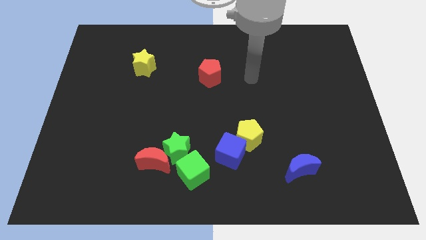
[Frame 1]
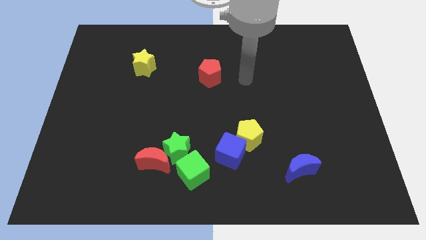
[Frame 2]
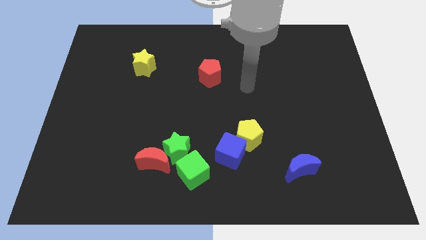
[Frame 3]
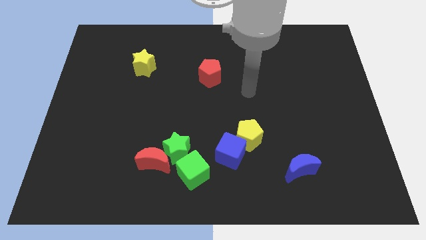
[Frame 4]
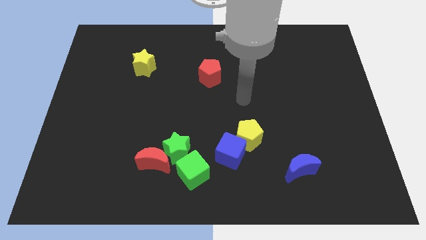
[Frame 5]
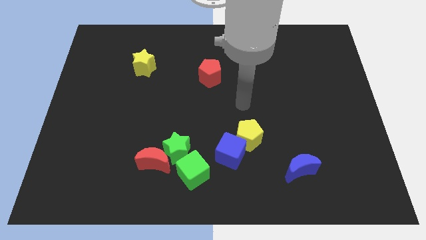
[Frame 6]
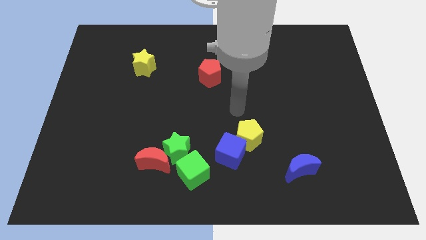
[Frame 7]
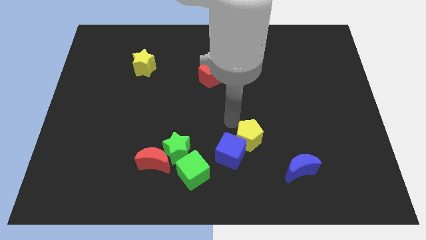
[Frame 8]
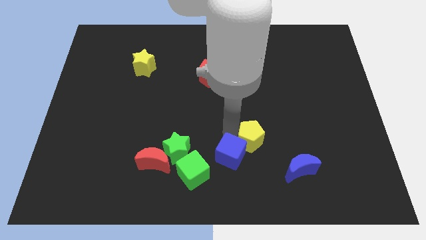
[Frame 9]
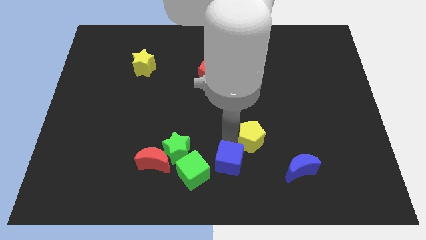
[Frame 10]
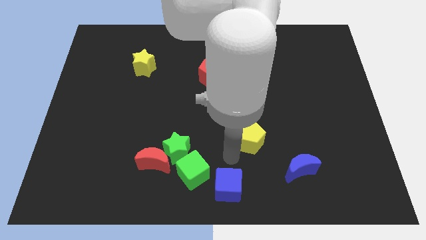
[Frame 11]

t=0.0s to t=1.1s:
move the yellow pentagon away from the blue cube

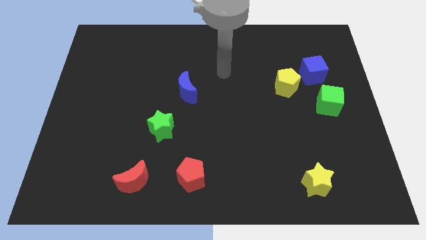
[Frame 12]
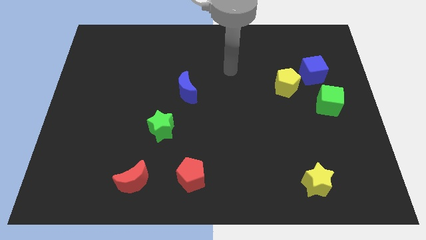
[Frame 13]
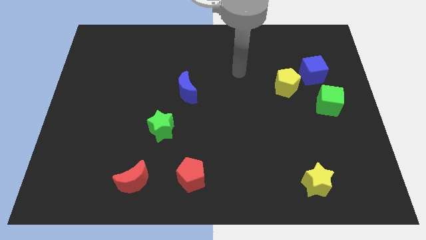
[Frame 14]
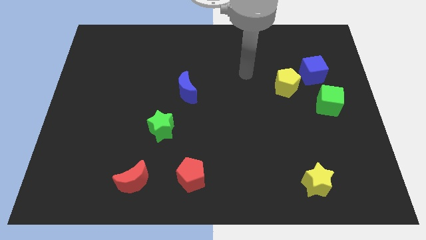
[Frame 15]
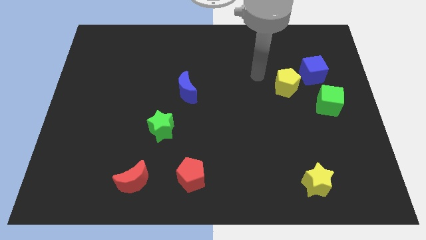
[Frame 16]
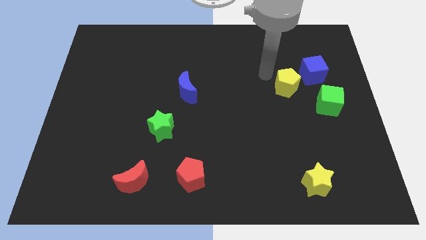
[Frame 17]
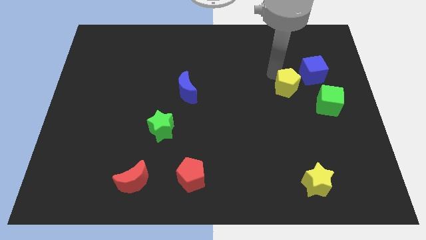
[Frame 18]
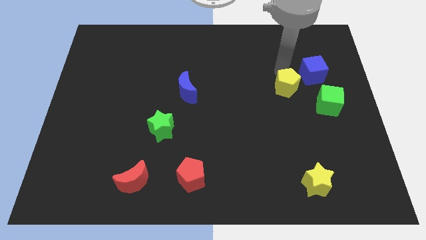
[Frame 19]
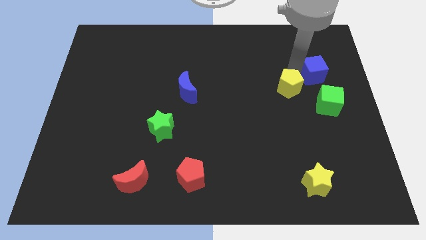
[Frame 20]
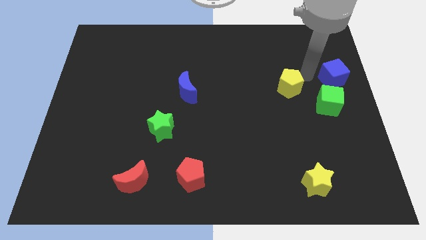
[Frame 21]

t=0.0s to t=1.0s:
pull the yellow pentagon apart from the blue cube

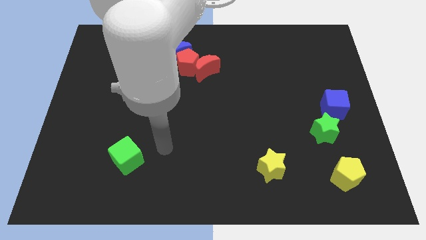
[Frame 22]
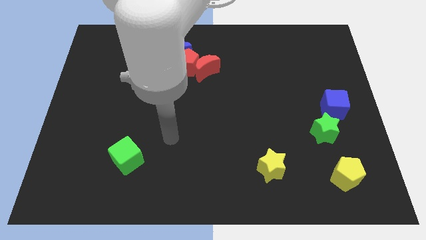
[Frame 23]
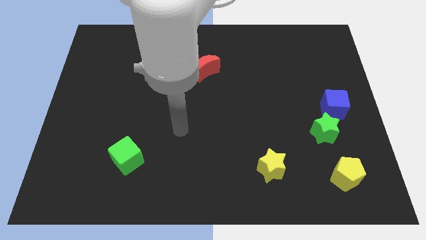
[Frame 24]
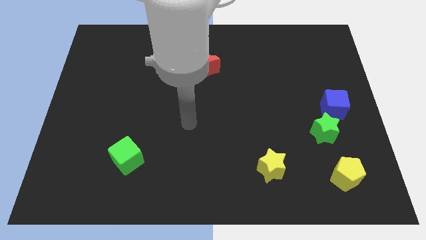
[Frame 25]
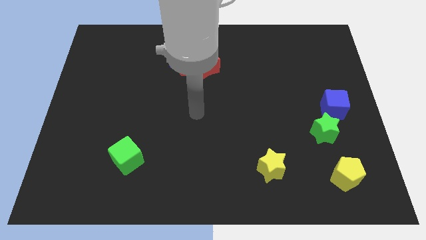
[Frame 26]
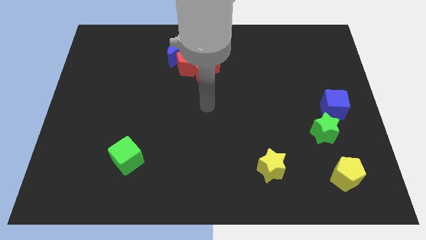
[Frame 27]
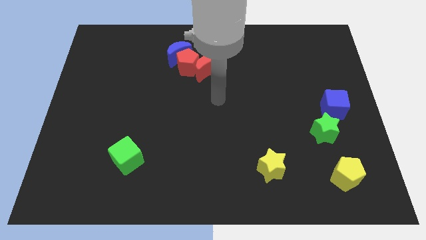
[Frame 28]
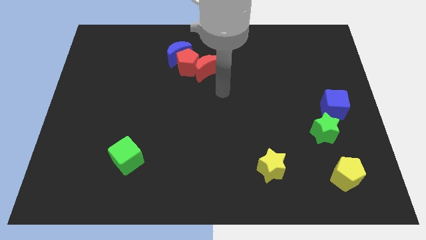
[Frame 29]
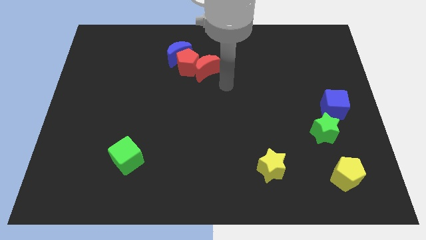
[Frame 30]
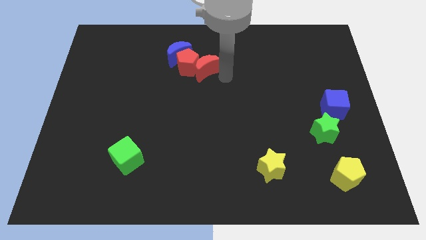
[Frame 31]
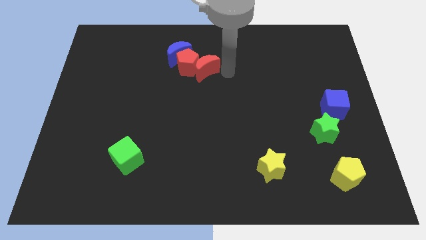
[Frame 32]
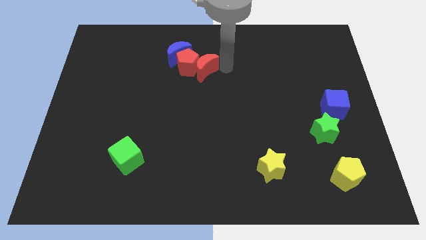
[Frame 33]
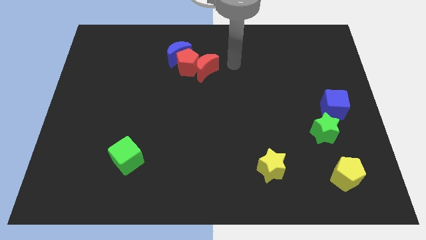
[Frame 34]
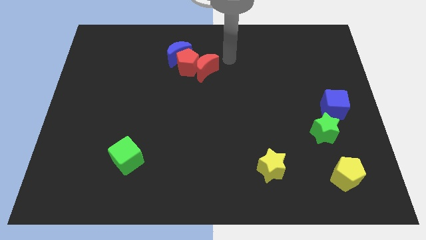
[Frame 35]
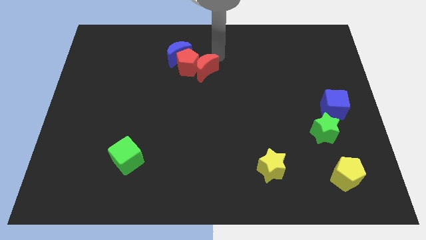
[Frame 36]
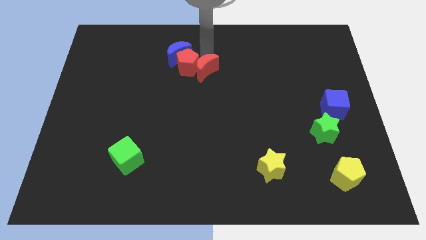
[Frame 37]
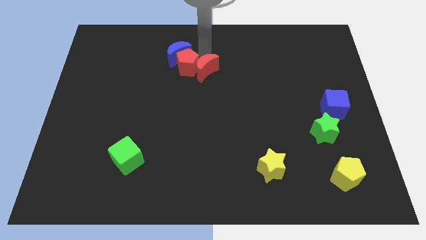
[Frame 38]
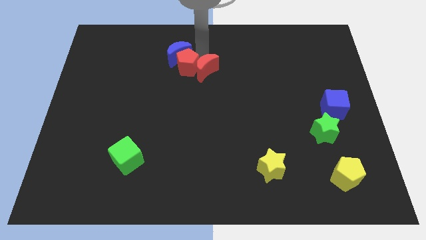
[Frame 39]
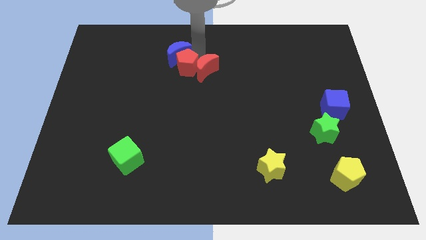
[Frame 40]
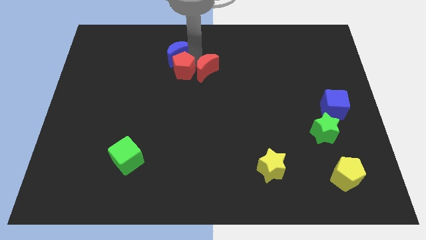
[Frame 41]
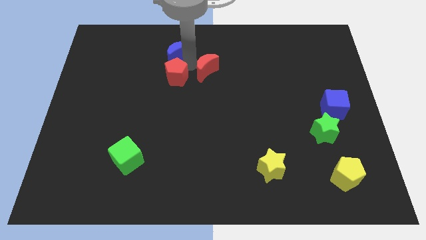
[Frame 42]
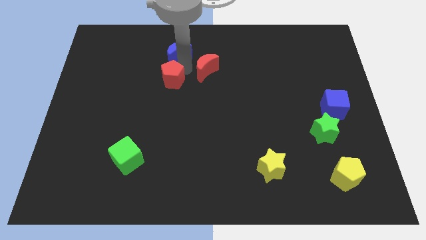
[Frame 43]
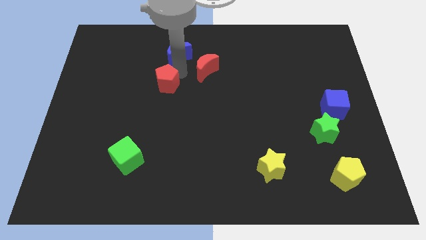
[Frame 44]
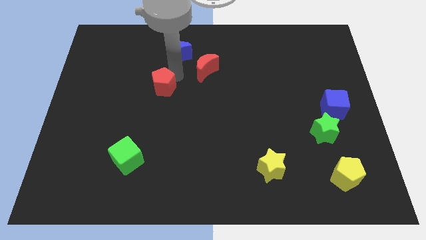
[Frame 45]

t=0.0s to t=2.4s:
move the red pentagon away from the blue moon and red moon

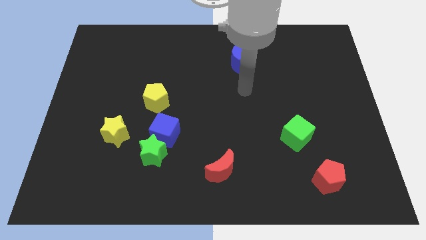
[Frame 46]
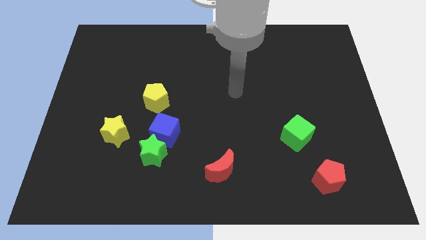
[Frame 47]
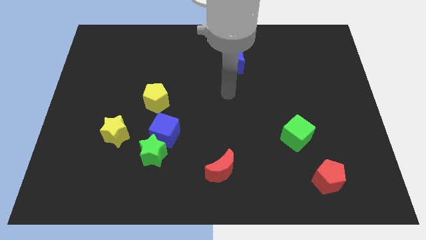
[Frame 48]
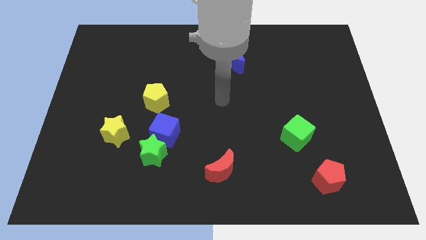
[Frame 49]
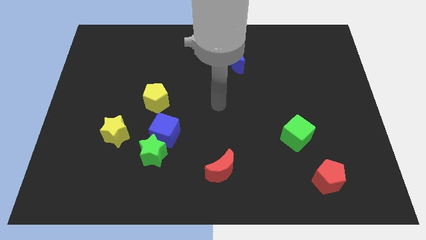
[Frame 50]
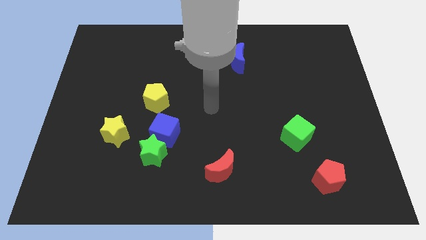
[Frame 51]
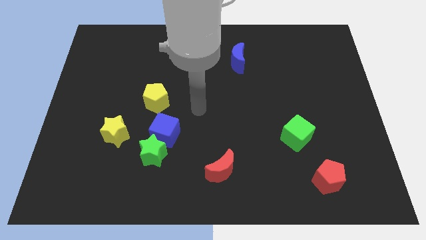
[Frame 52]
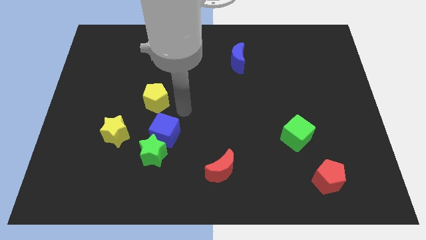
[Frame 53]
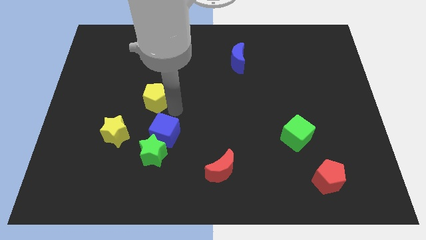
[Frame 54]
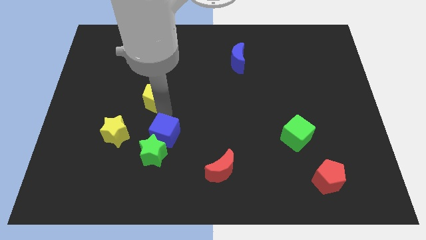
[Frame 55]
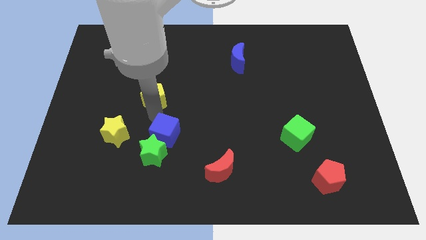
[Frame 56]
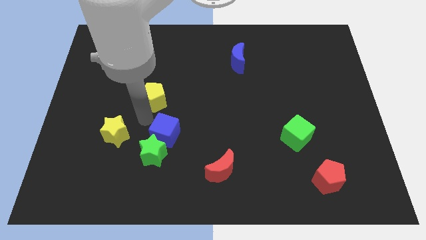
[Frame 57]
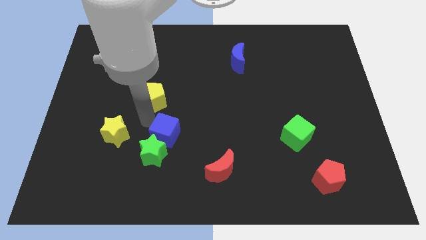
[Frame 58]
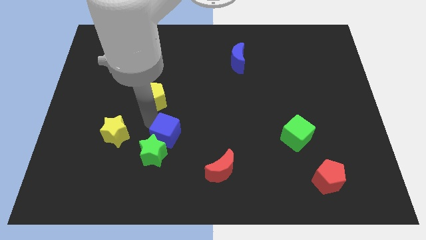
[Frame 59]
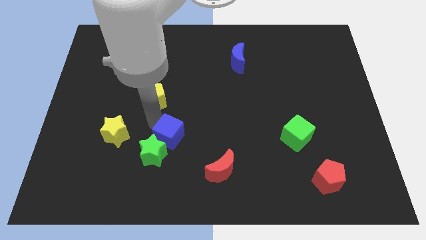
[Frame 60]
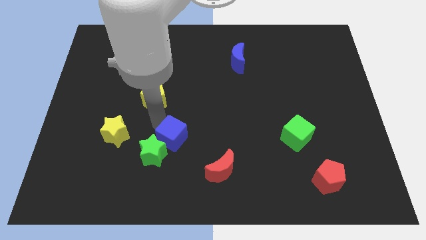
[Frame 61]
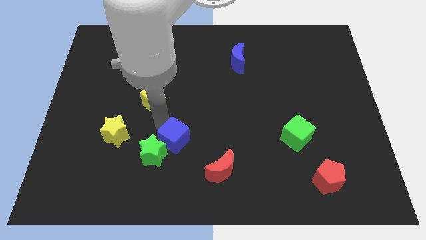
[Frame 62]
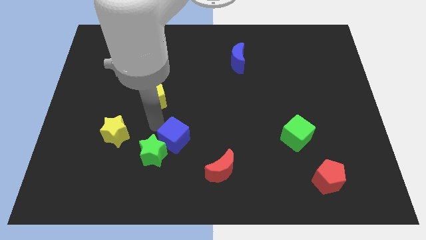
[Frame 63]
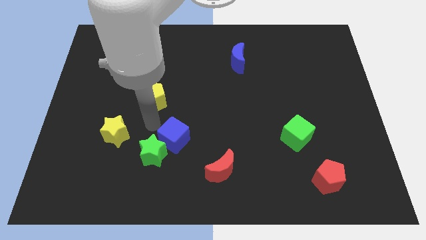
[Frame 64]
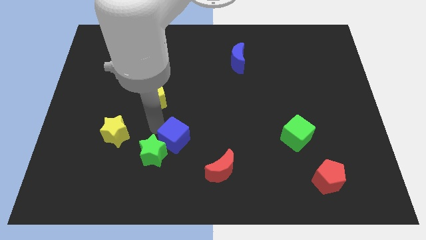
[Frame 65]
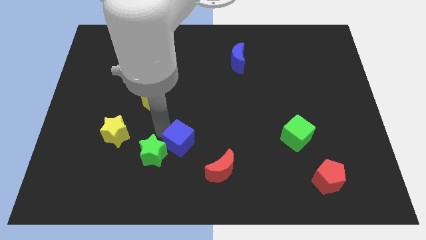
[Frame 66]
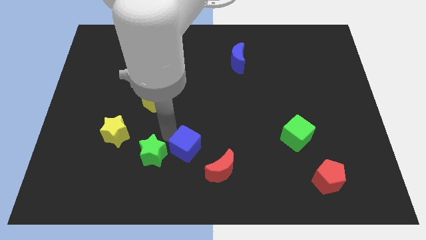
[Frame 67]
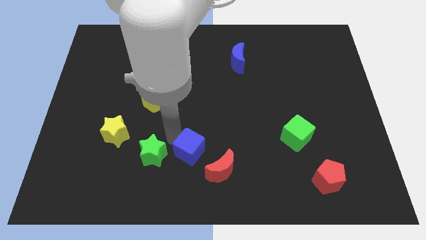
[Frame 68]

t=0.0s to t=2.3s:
move the blue cube away from the green star and yellow pentagon

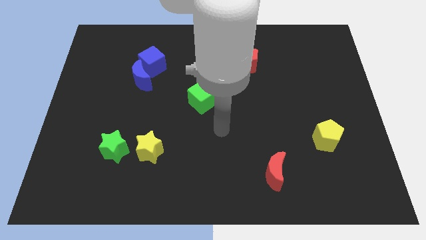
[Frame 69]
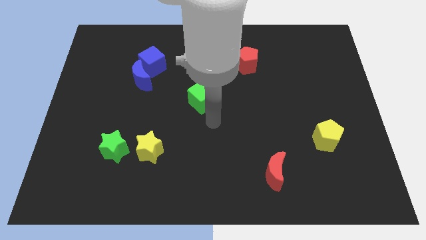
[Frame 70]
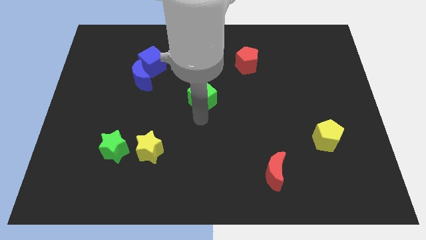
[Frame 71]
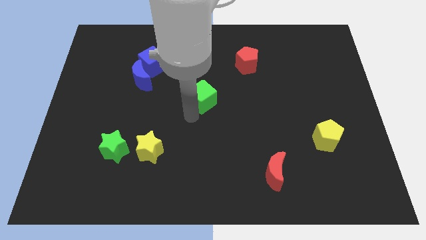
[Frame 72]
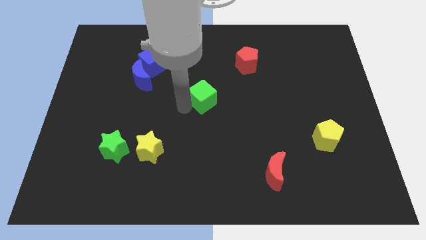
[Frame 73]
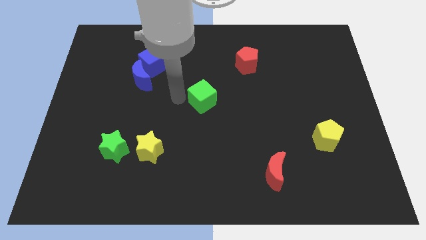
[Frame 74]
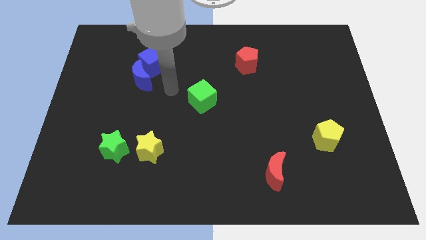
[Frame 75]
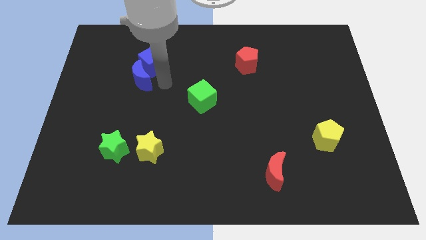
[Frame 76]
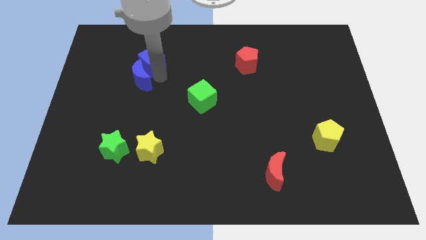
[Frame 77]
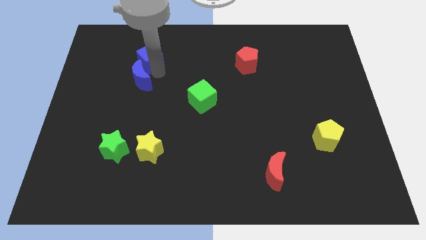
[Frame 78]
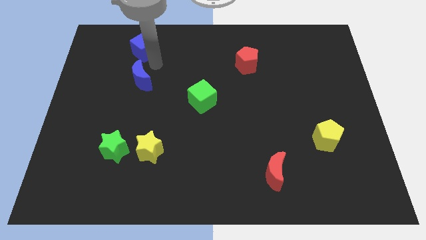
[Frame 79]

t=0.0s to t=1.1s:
pull the blue moon apart from the blue cube

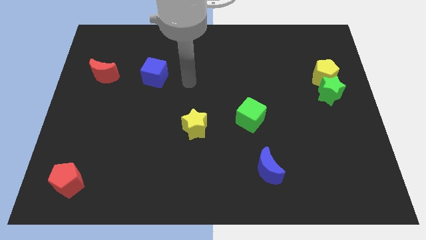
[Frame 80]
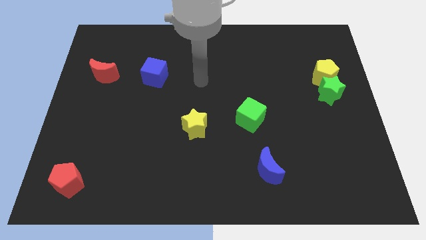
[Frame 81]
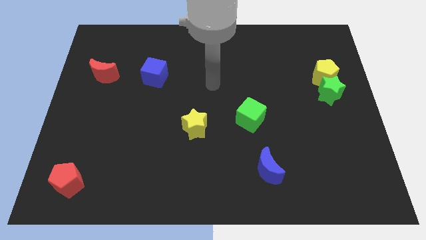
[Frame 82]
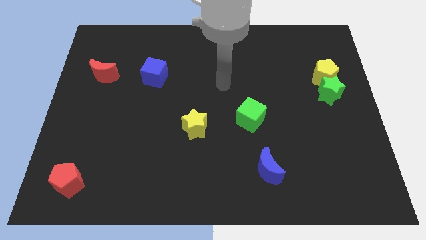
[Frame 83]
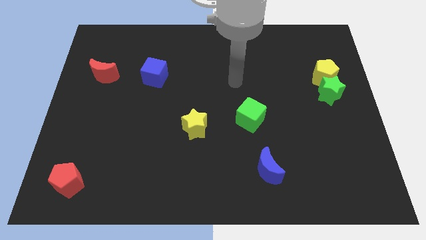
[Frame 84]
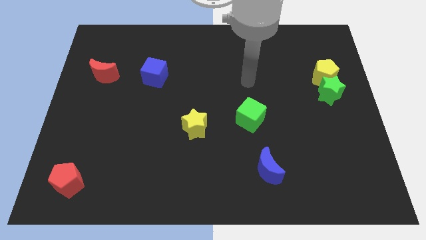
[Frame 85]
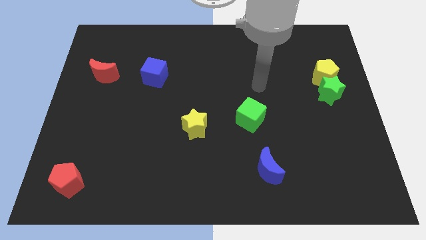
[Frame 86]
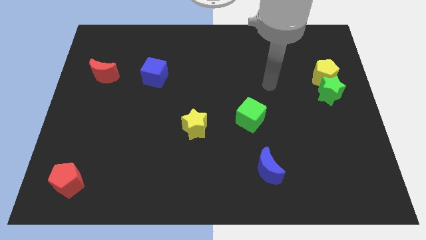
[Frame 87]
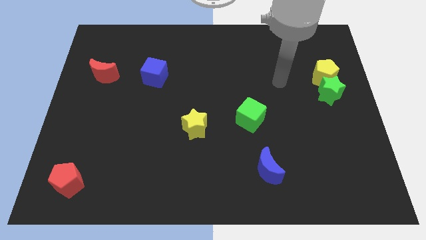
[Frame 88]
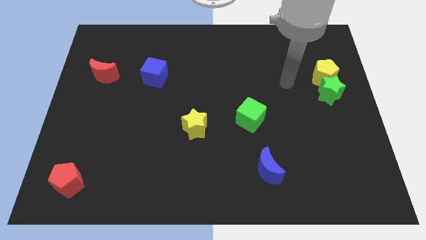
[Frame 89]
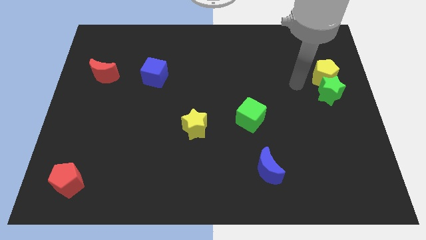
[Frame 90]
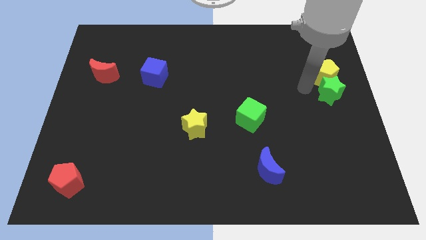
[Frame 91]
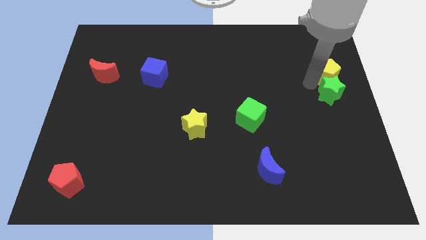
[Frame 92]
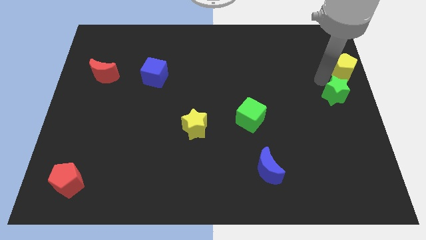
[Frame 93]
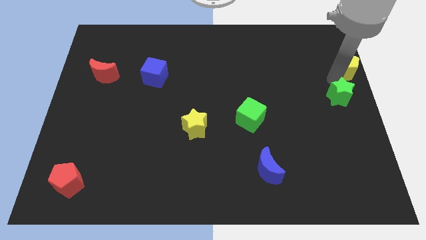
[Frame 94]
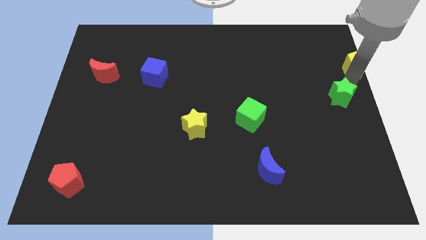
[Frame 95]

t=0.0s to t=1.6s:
pull the green star apart from the yellow pentagon
